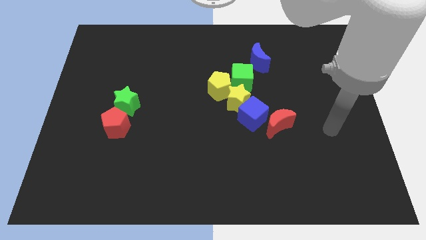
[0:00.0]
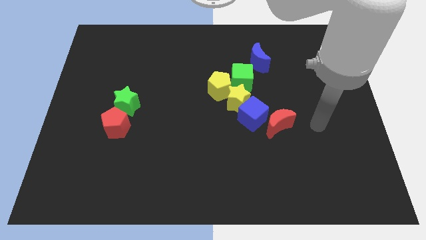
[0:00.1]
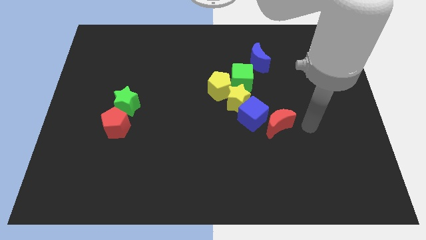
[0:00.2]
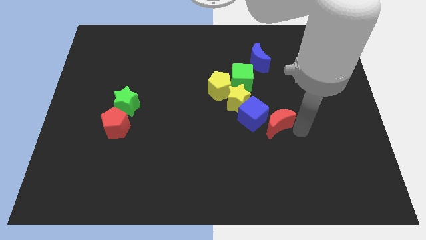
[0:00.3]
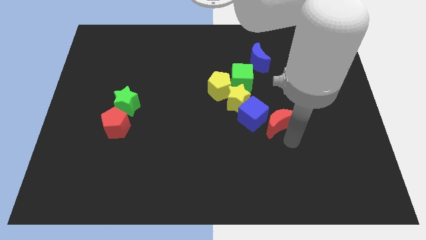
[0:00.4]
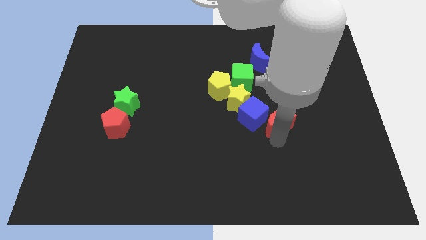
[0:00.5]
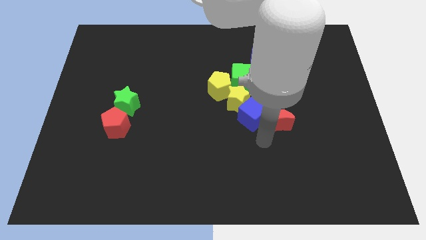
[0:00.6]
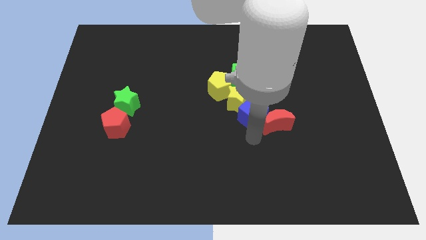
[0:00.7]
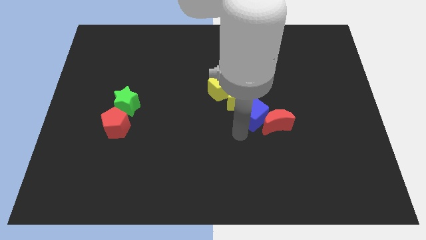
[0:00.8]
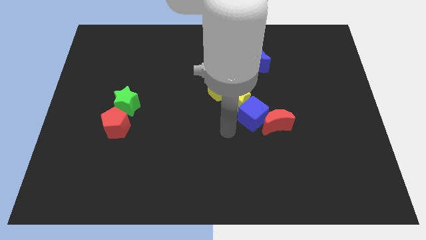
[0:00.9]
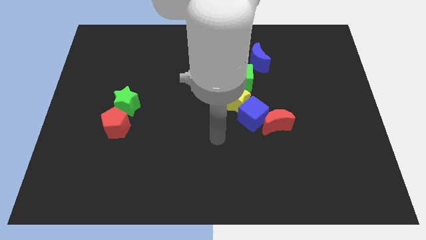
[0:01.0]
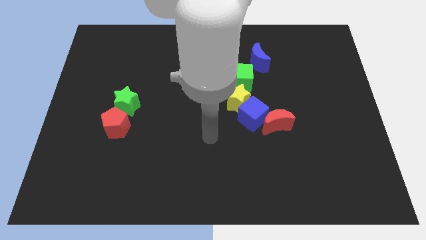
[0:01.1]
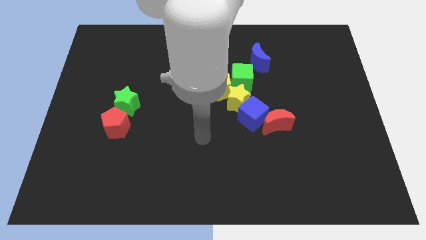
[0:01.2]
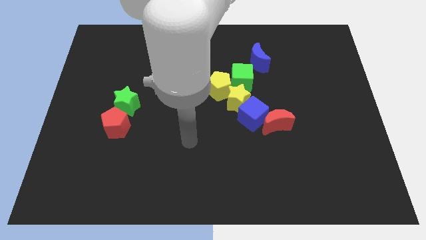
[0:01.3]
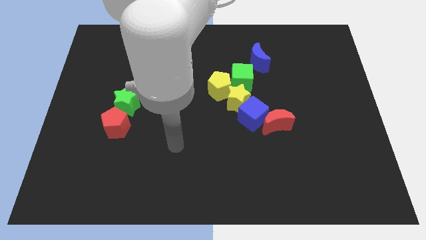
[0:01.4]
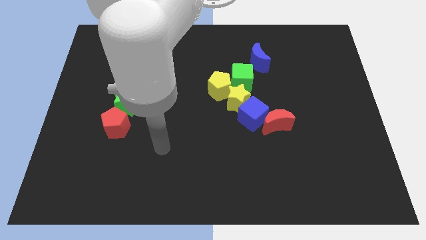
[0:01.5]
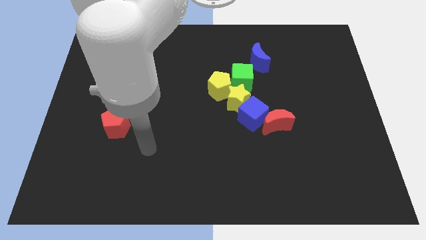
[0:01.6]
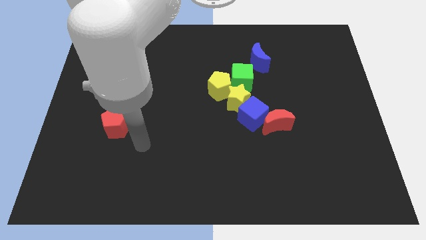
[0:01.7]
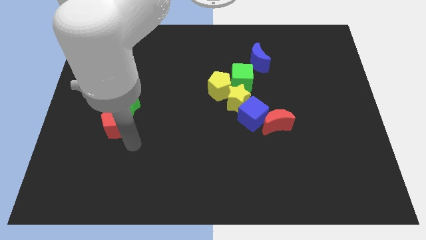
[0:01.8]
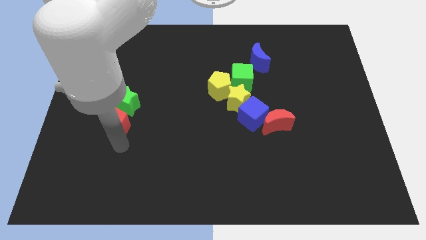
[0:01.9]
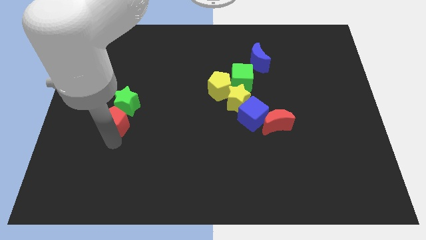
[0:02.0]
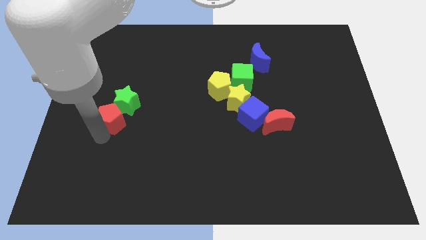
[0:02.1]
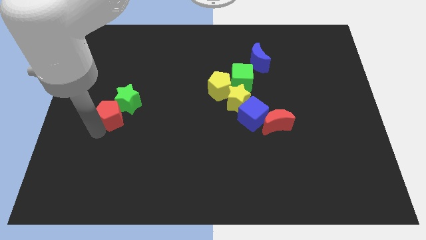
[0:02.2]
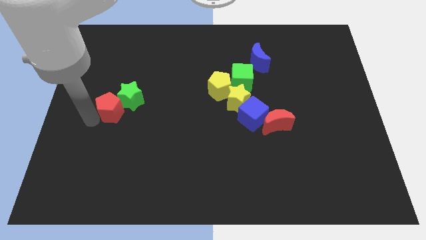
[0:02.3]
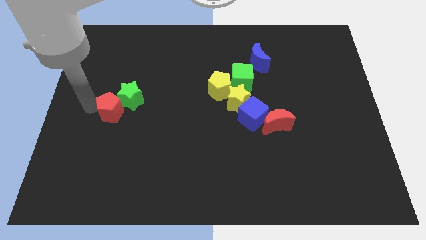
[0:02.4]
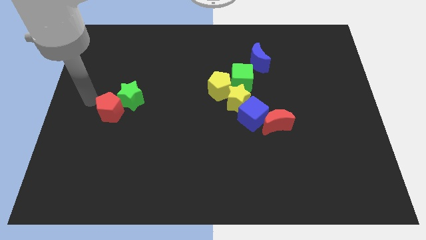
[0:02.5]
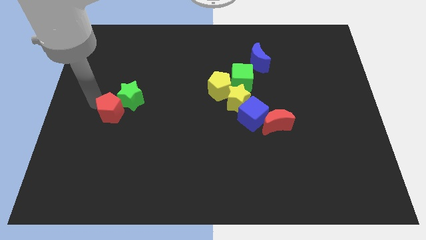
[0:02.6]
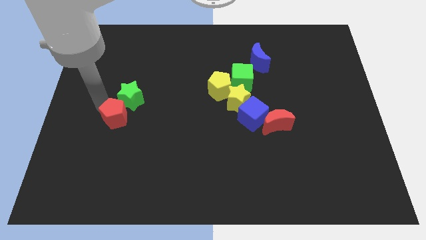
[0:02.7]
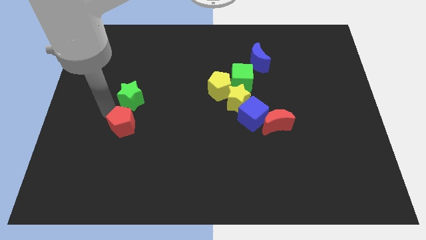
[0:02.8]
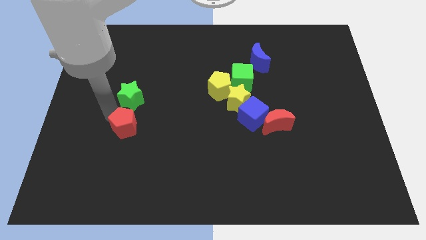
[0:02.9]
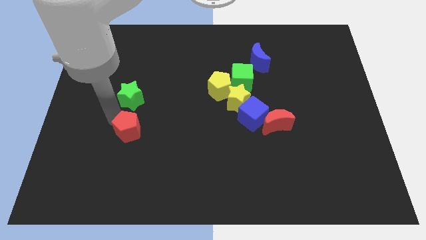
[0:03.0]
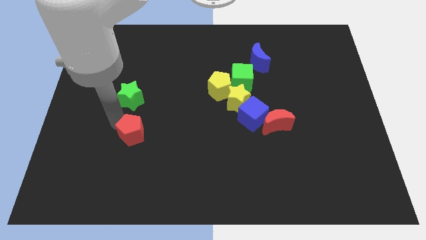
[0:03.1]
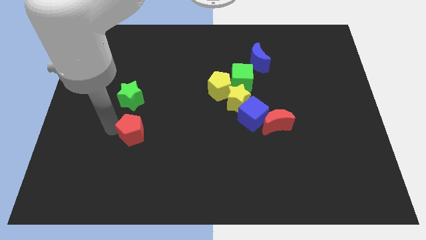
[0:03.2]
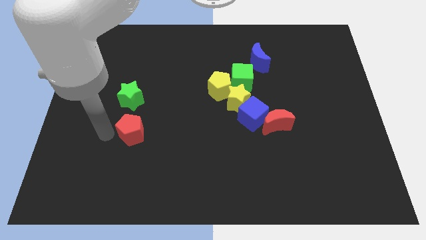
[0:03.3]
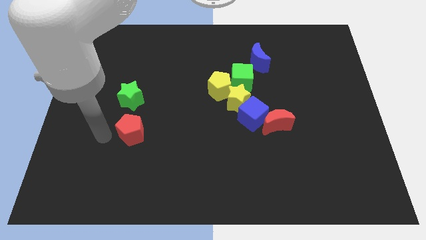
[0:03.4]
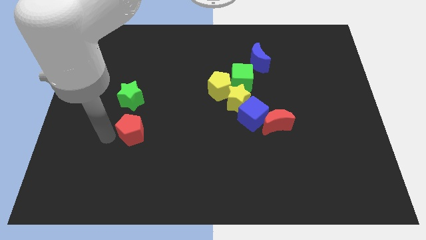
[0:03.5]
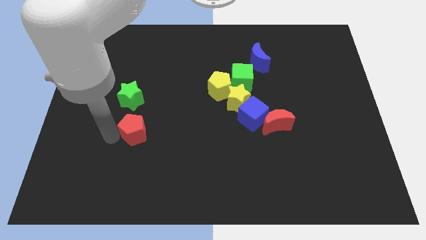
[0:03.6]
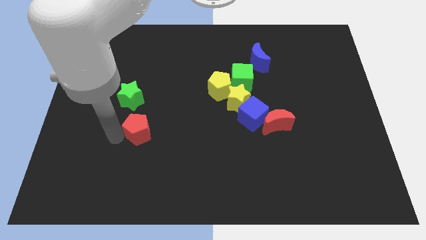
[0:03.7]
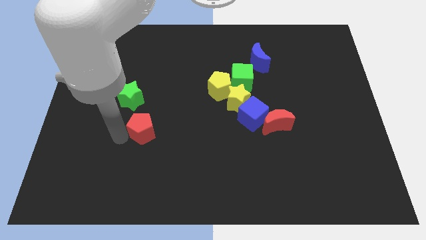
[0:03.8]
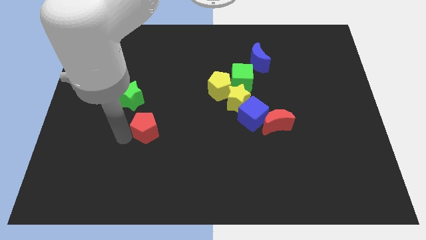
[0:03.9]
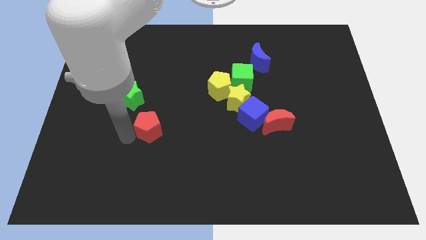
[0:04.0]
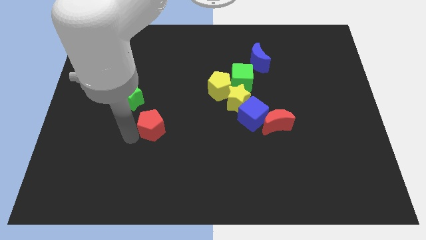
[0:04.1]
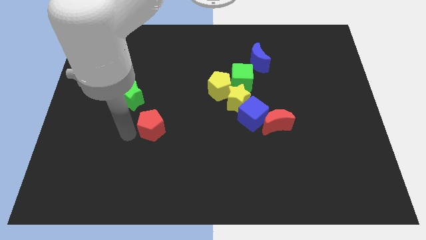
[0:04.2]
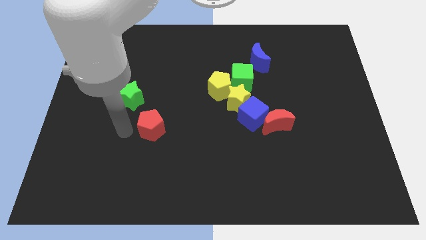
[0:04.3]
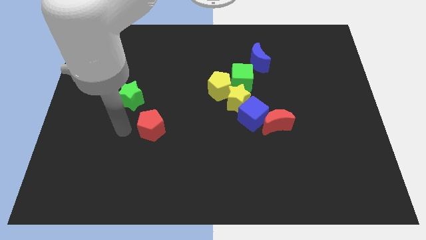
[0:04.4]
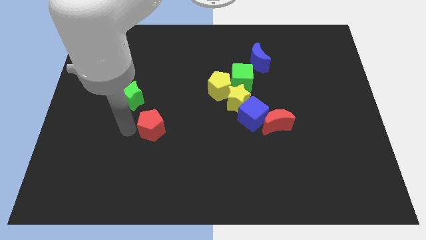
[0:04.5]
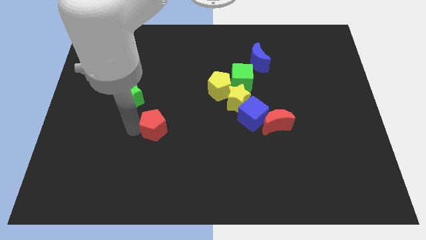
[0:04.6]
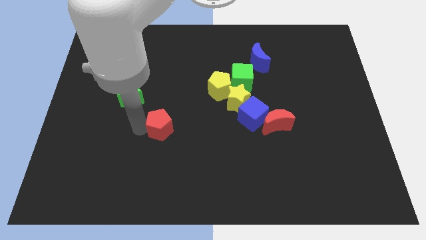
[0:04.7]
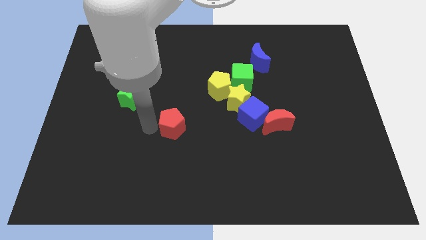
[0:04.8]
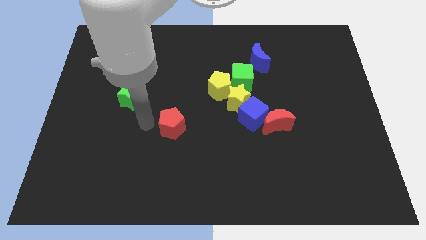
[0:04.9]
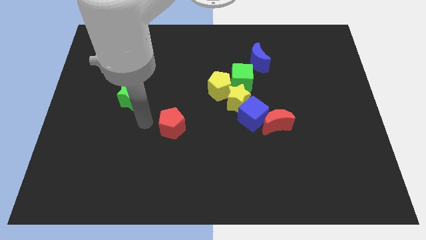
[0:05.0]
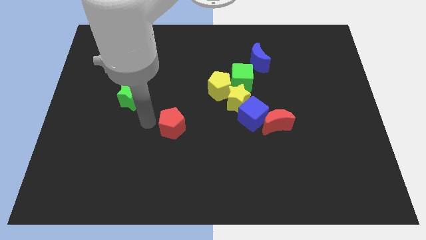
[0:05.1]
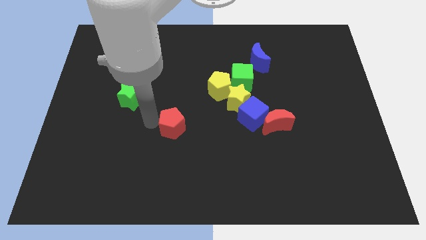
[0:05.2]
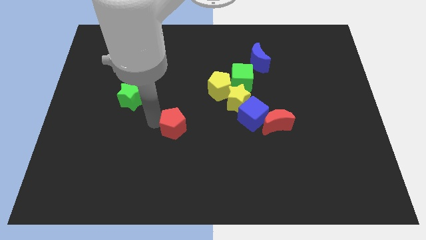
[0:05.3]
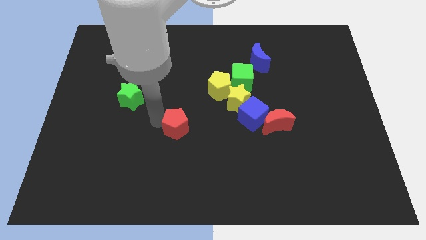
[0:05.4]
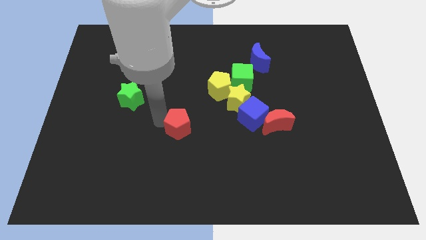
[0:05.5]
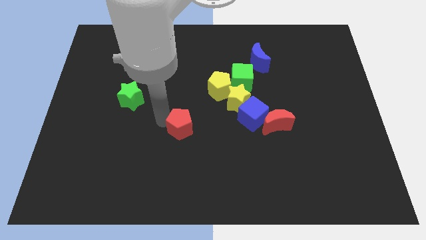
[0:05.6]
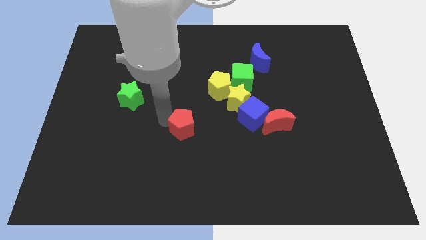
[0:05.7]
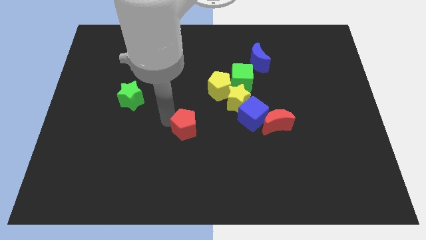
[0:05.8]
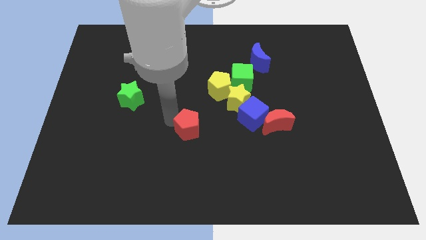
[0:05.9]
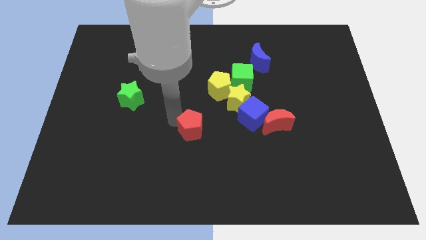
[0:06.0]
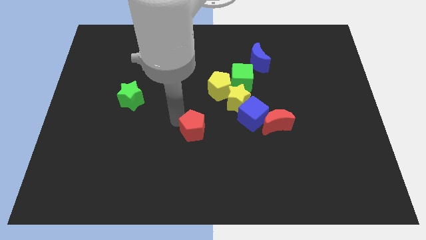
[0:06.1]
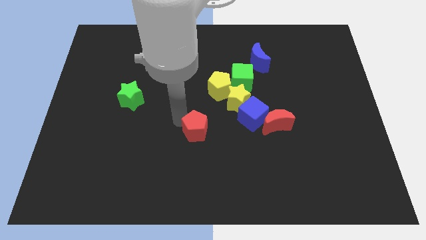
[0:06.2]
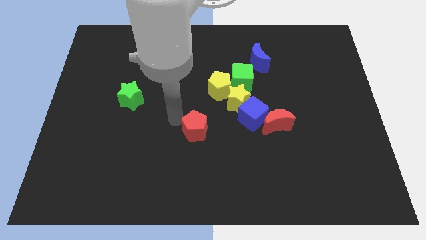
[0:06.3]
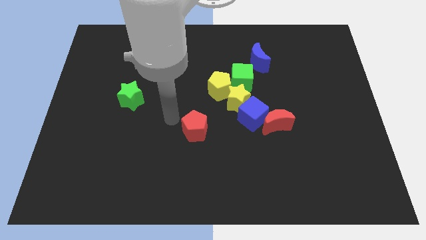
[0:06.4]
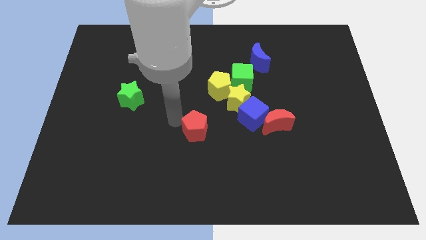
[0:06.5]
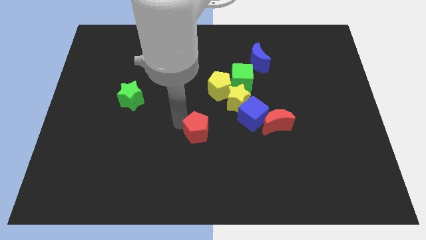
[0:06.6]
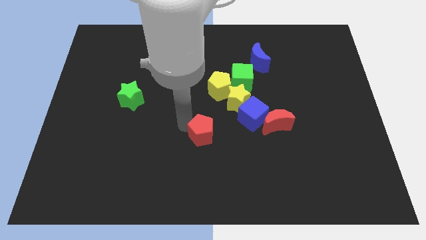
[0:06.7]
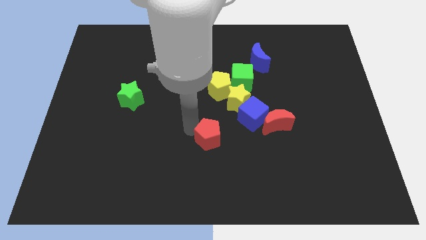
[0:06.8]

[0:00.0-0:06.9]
slide the red pentagon to the bottom left of the blue cube
